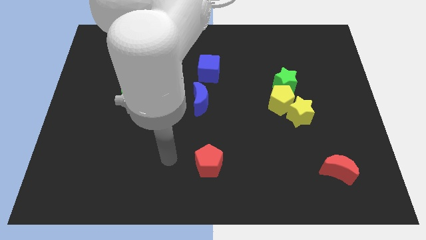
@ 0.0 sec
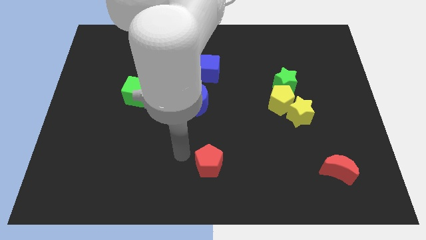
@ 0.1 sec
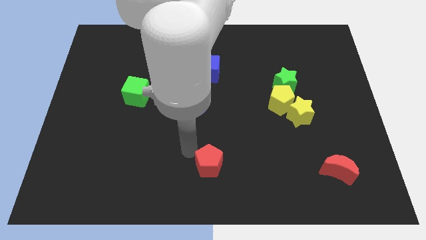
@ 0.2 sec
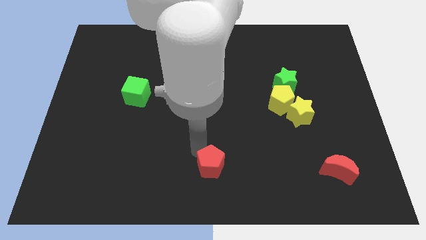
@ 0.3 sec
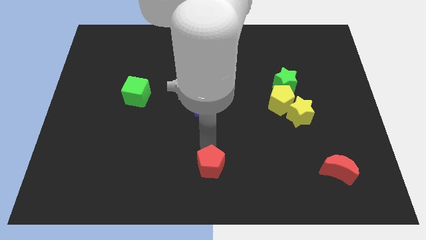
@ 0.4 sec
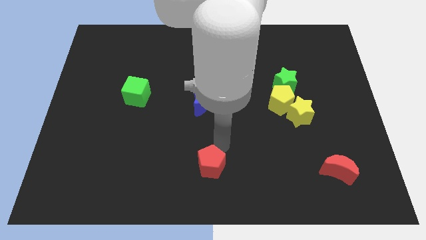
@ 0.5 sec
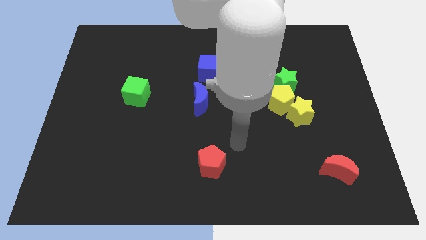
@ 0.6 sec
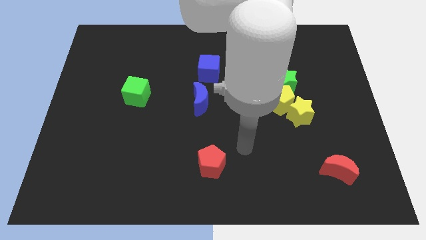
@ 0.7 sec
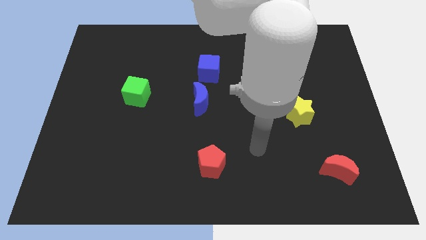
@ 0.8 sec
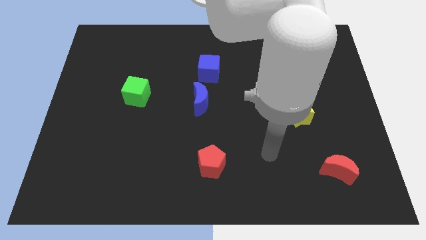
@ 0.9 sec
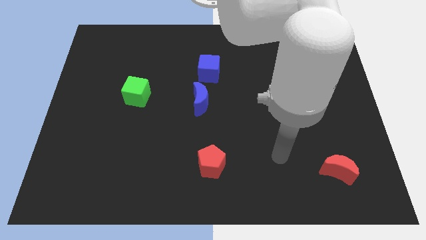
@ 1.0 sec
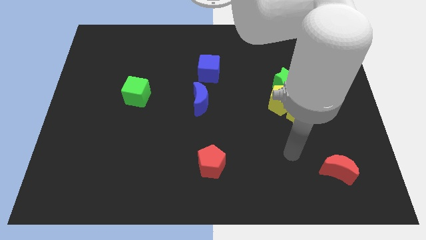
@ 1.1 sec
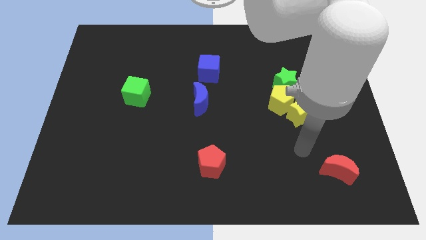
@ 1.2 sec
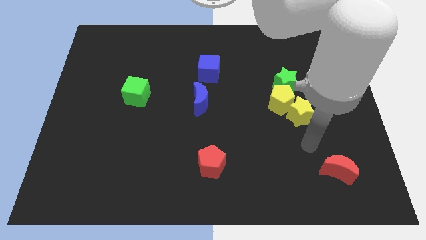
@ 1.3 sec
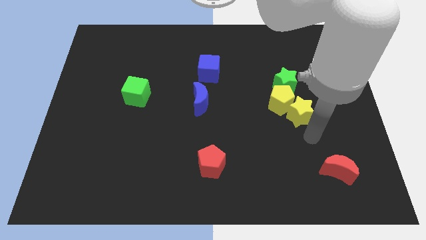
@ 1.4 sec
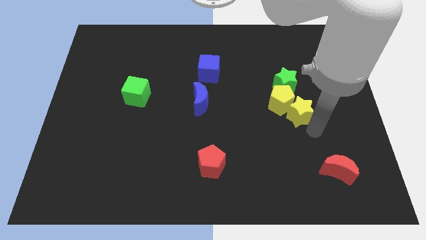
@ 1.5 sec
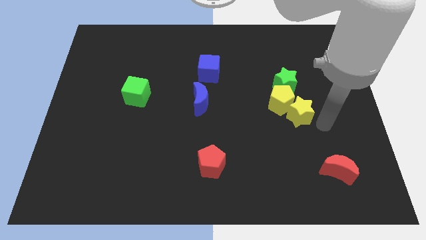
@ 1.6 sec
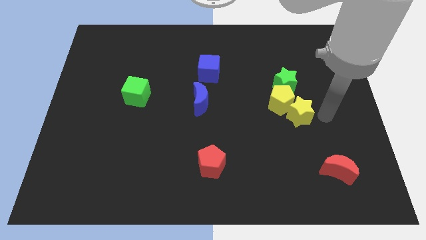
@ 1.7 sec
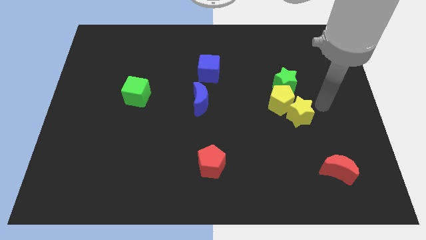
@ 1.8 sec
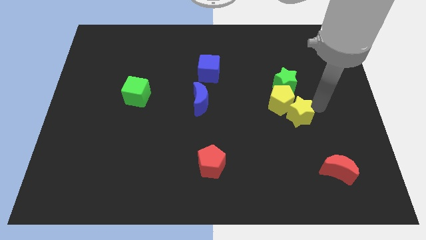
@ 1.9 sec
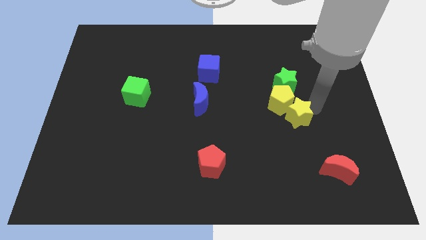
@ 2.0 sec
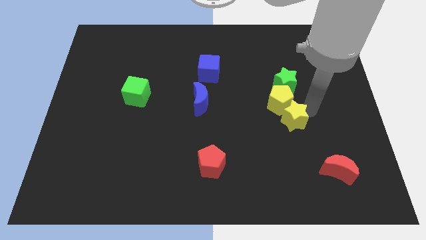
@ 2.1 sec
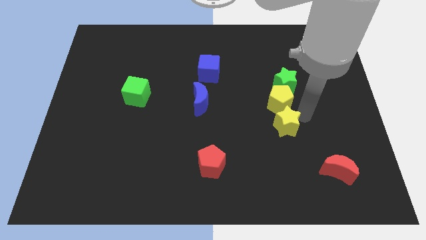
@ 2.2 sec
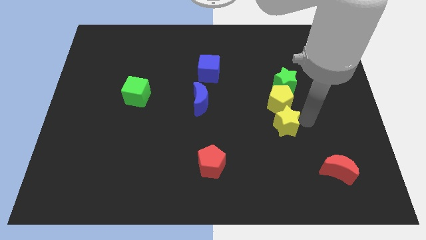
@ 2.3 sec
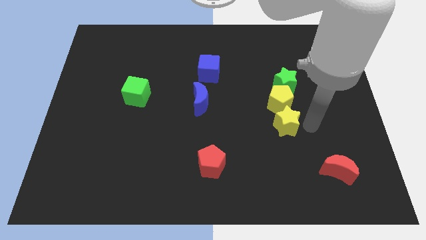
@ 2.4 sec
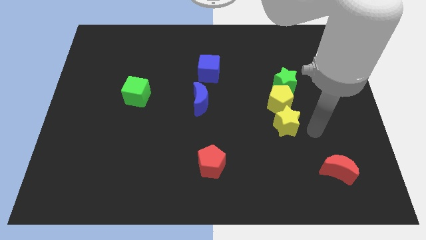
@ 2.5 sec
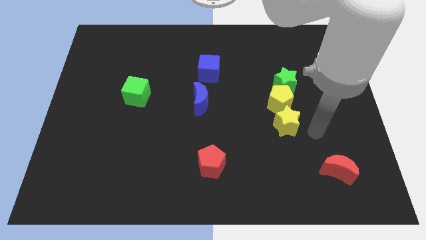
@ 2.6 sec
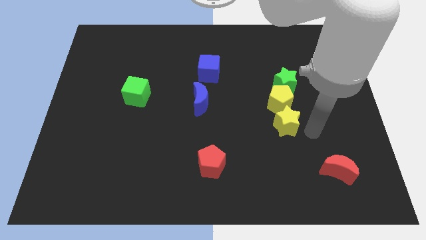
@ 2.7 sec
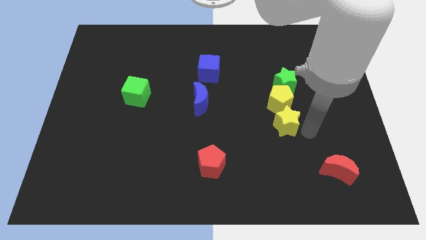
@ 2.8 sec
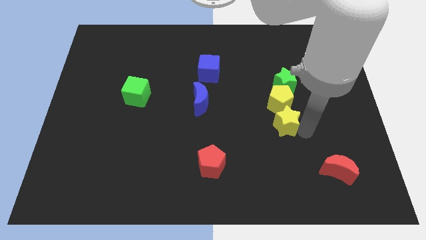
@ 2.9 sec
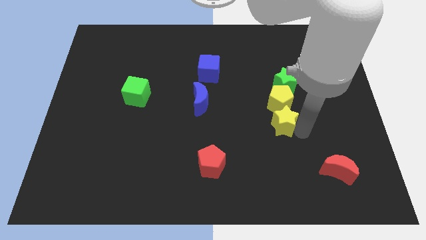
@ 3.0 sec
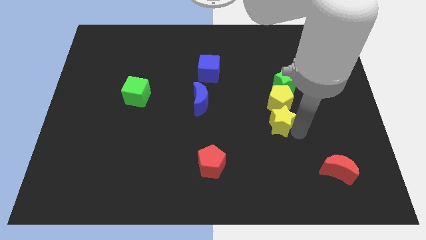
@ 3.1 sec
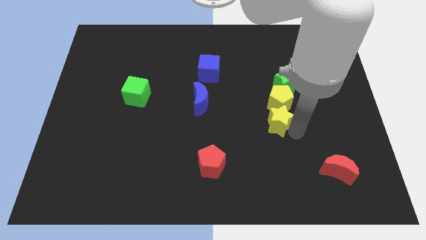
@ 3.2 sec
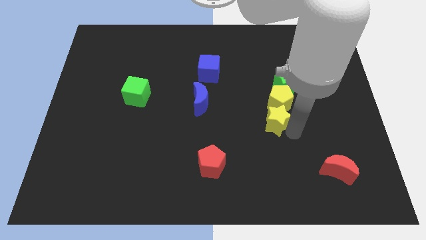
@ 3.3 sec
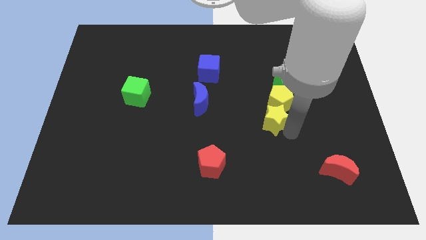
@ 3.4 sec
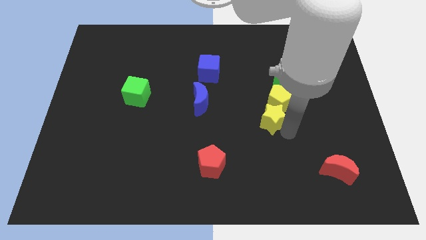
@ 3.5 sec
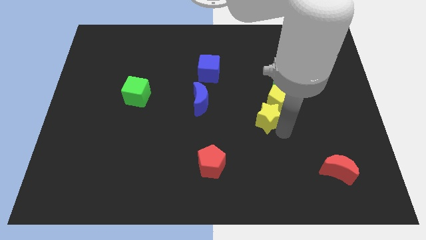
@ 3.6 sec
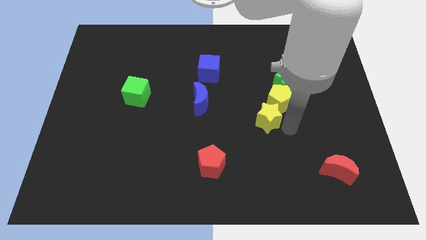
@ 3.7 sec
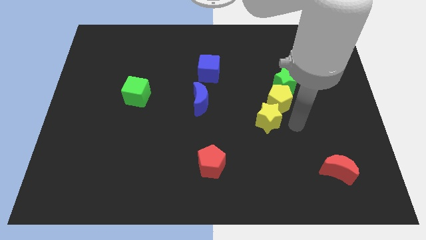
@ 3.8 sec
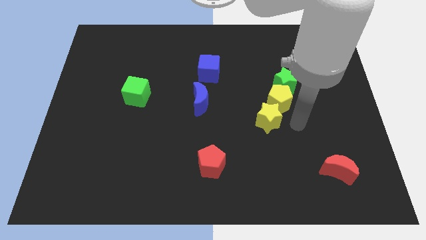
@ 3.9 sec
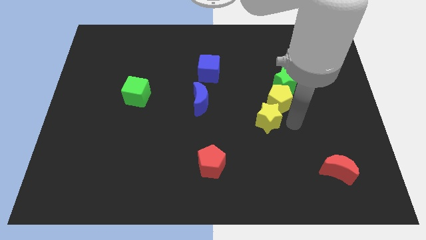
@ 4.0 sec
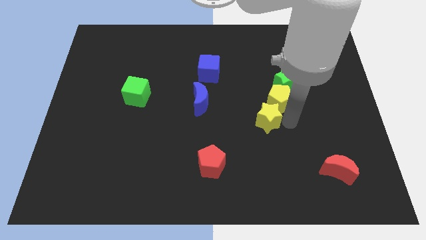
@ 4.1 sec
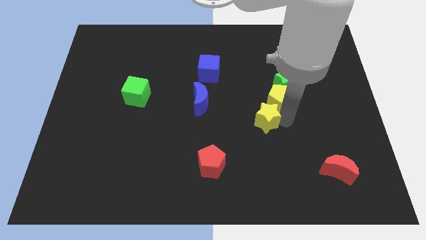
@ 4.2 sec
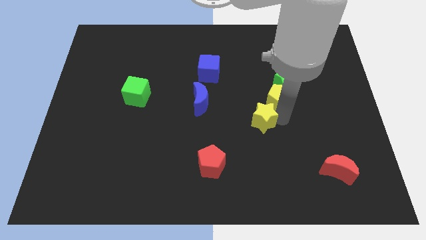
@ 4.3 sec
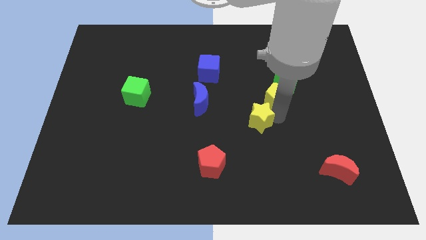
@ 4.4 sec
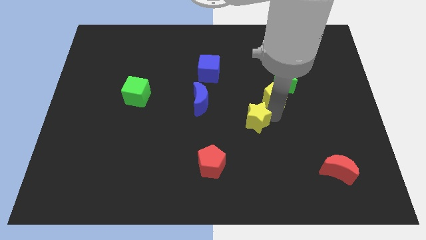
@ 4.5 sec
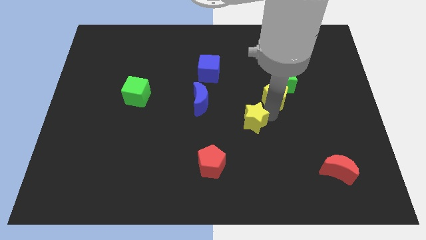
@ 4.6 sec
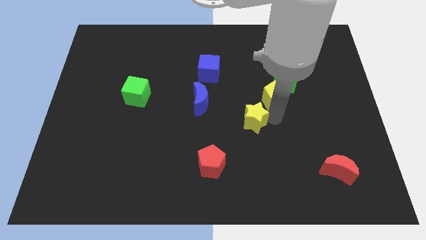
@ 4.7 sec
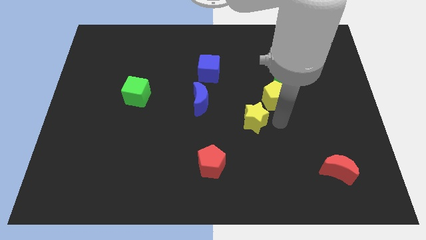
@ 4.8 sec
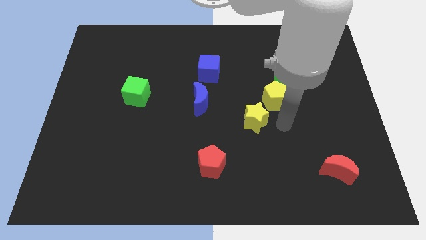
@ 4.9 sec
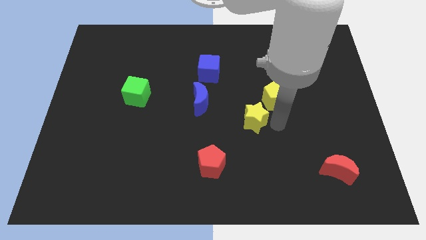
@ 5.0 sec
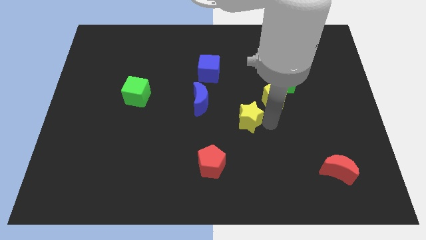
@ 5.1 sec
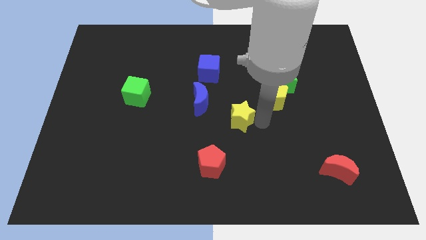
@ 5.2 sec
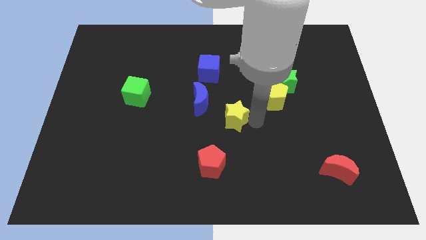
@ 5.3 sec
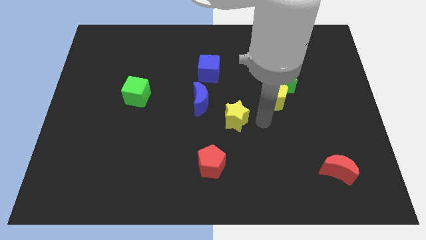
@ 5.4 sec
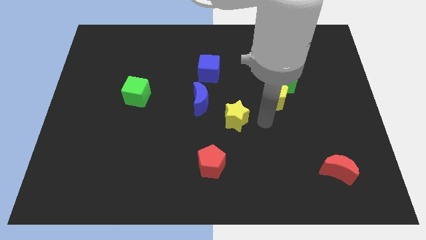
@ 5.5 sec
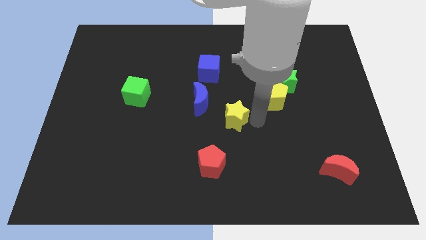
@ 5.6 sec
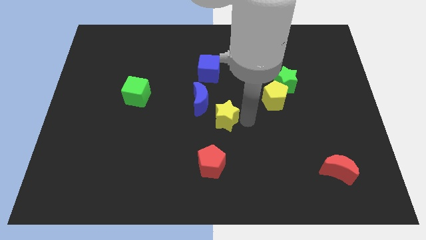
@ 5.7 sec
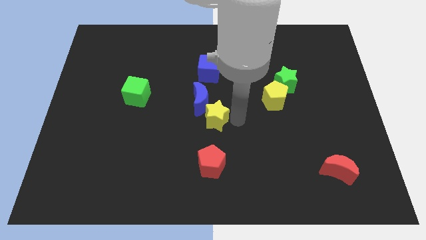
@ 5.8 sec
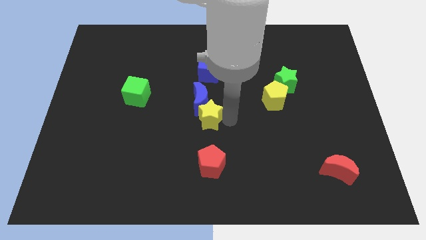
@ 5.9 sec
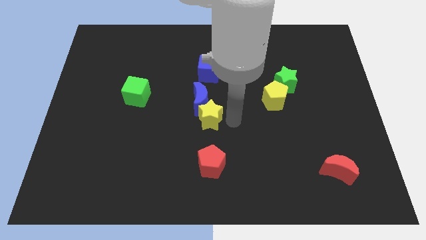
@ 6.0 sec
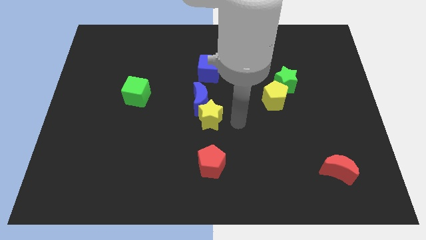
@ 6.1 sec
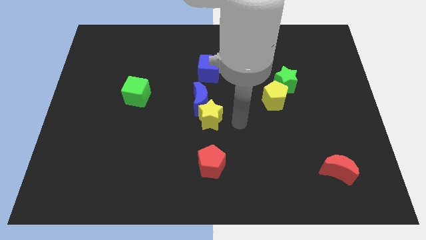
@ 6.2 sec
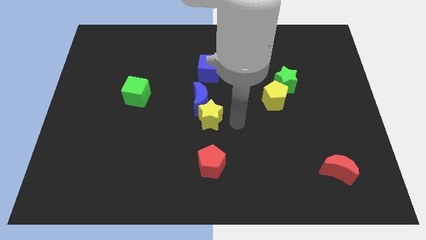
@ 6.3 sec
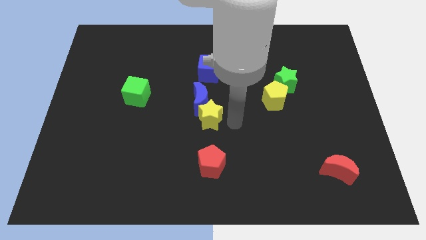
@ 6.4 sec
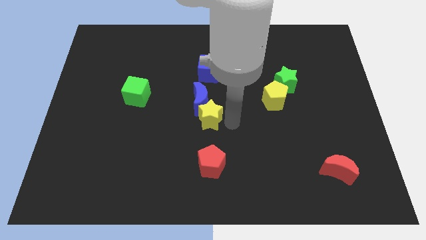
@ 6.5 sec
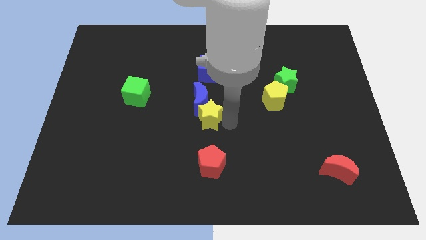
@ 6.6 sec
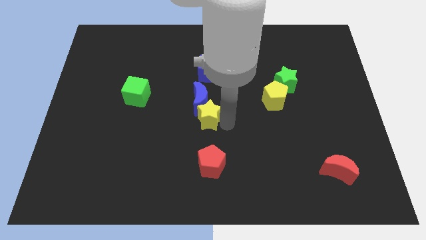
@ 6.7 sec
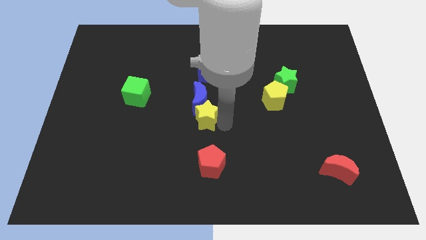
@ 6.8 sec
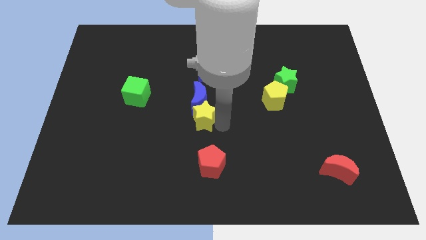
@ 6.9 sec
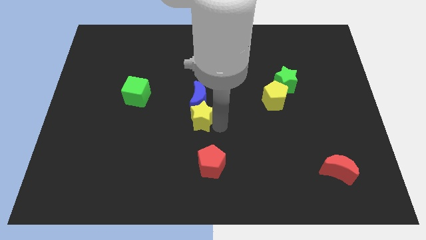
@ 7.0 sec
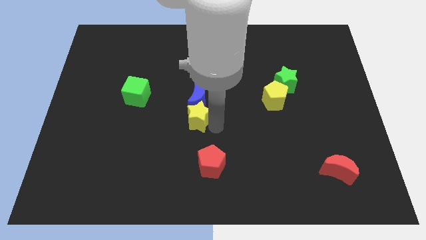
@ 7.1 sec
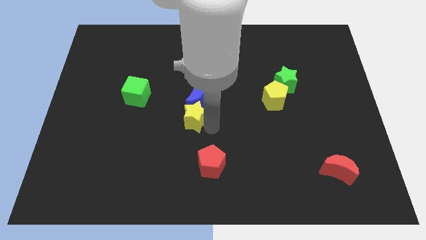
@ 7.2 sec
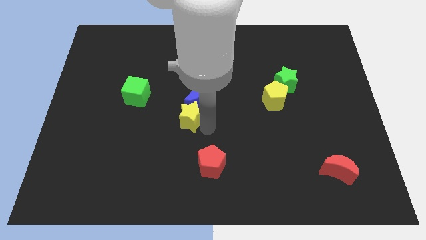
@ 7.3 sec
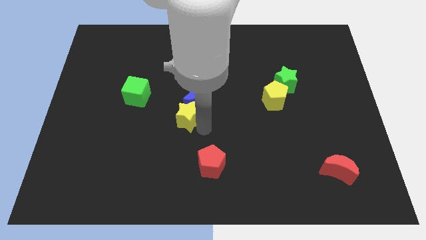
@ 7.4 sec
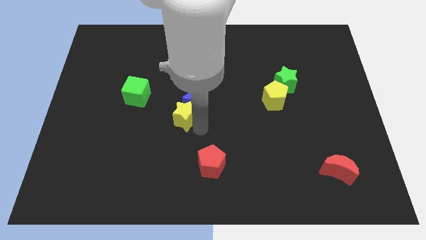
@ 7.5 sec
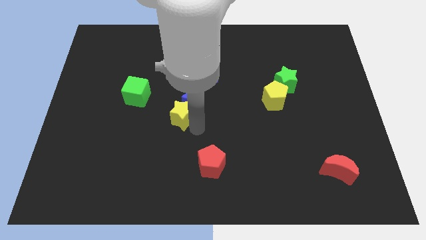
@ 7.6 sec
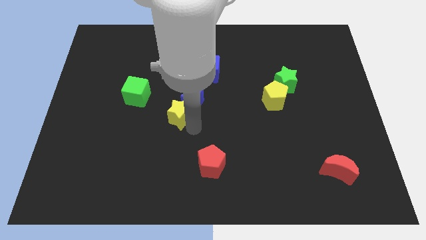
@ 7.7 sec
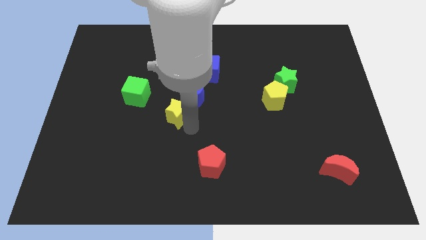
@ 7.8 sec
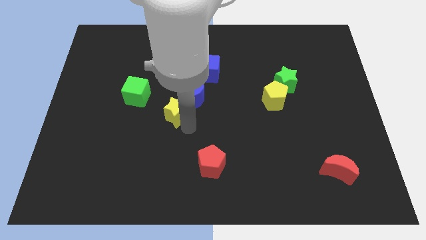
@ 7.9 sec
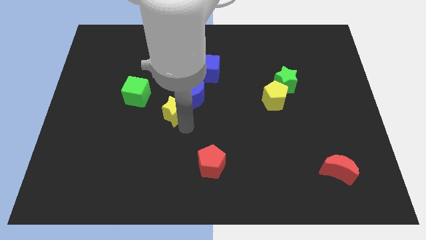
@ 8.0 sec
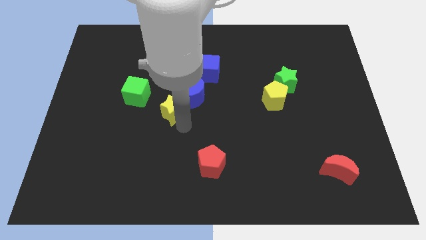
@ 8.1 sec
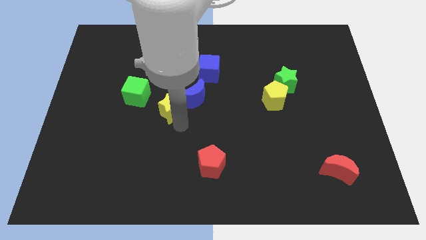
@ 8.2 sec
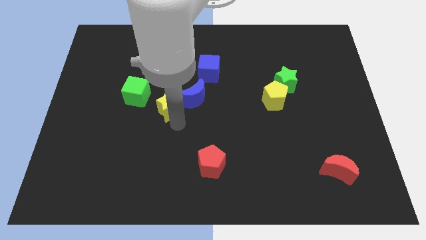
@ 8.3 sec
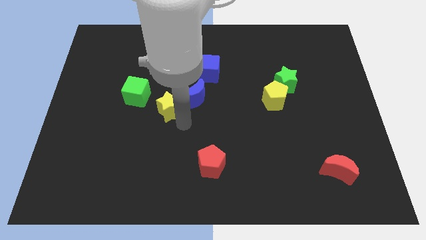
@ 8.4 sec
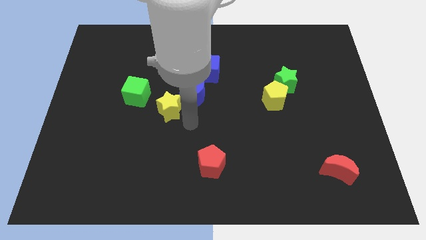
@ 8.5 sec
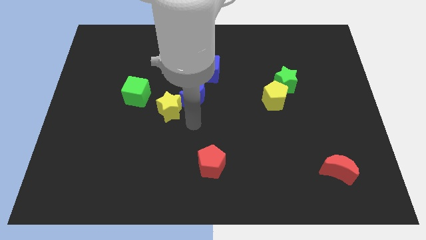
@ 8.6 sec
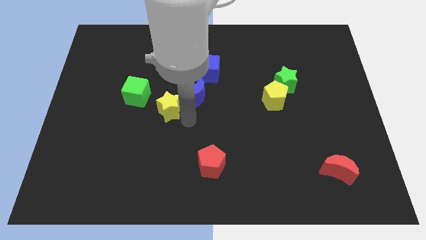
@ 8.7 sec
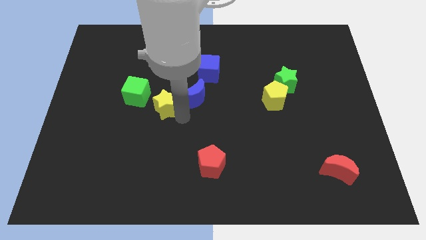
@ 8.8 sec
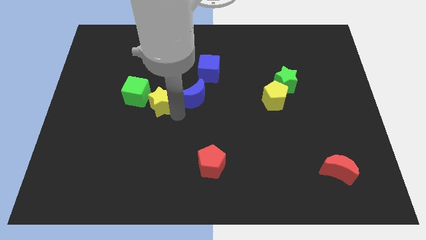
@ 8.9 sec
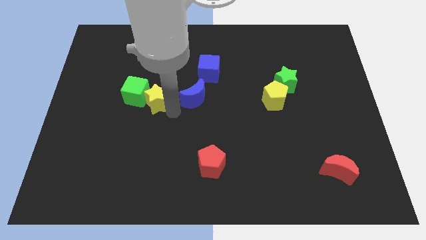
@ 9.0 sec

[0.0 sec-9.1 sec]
put the yellow star next to the green cube
